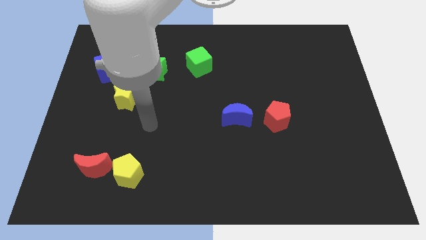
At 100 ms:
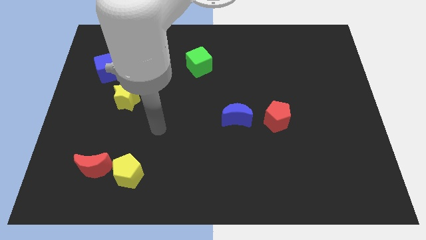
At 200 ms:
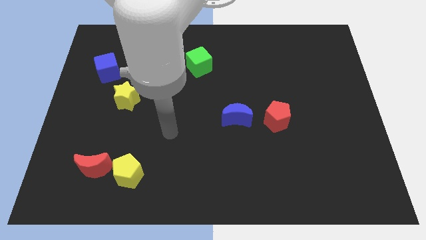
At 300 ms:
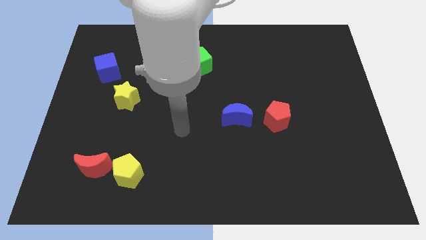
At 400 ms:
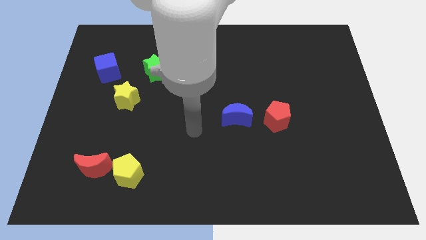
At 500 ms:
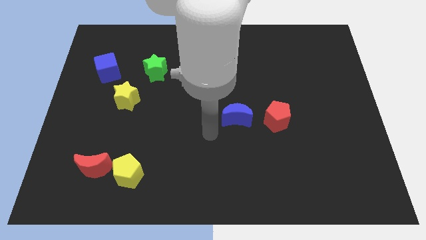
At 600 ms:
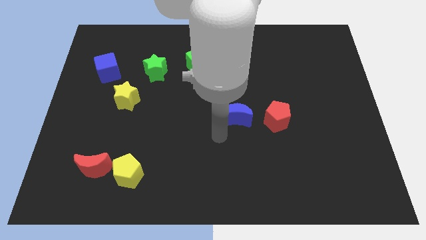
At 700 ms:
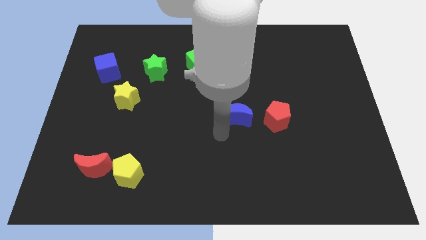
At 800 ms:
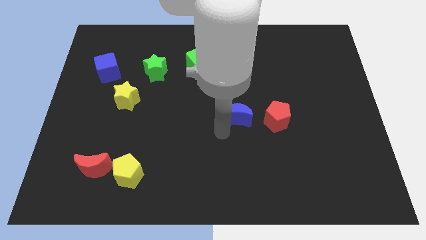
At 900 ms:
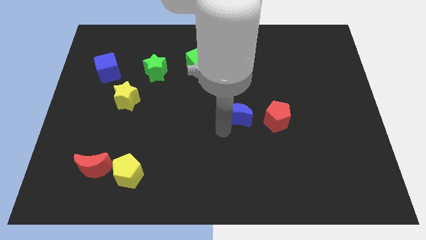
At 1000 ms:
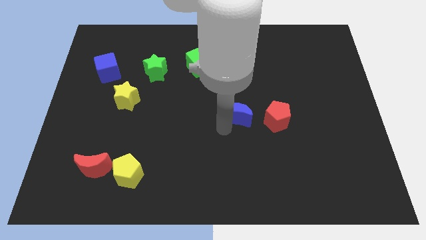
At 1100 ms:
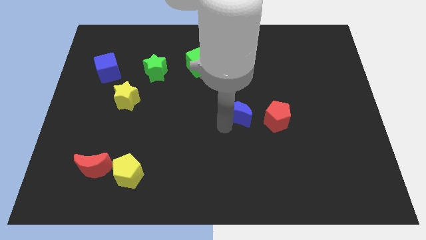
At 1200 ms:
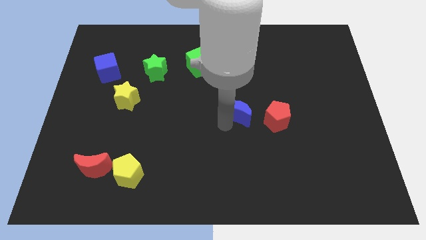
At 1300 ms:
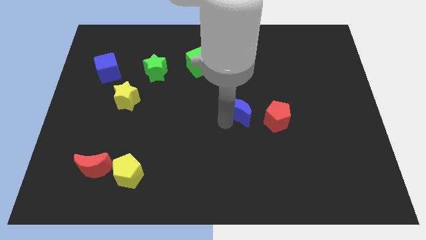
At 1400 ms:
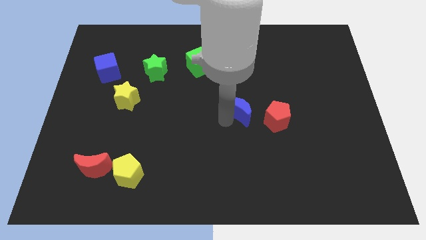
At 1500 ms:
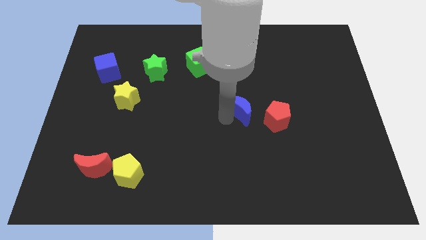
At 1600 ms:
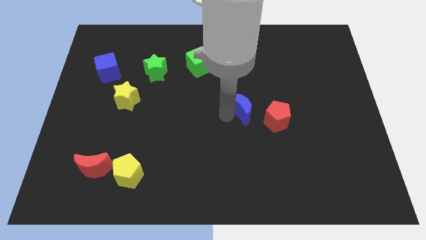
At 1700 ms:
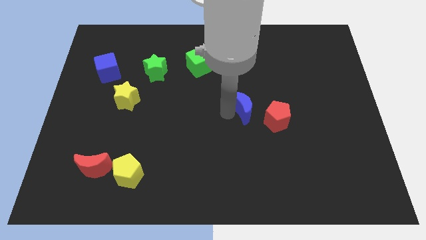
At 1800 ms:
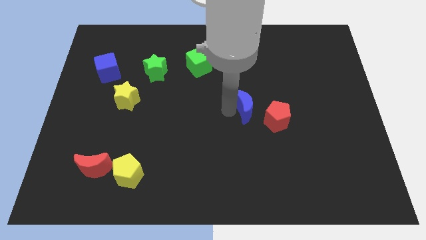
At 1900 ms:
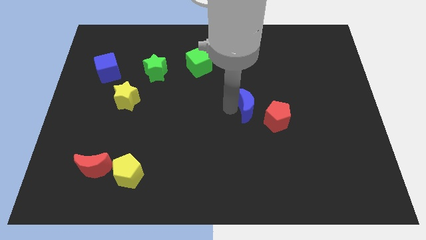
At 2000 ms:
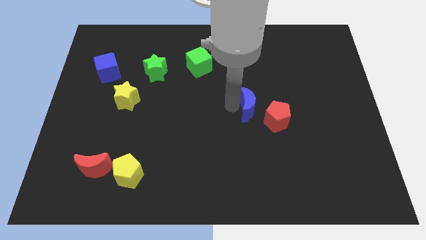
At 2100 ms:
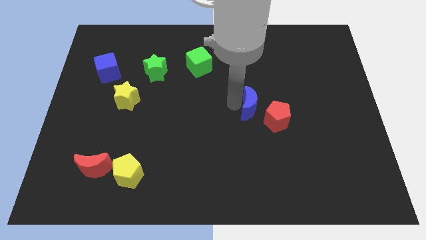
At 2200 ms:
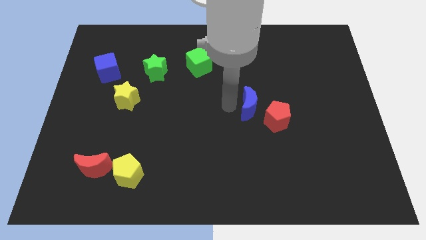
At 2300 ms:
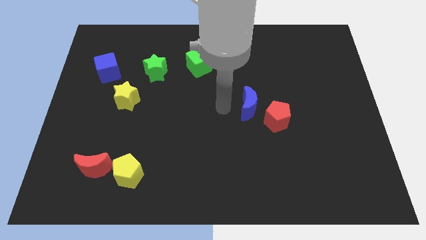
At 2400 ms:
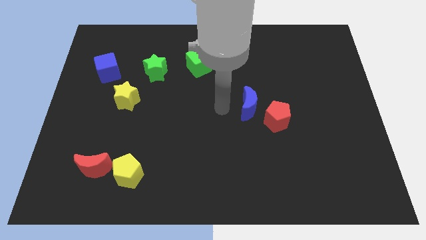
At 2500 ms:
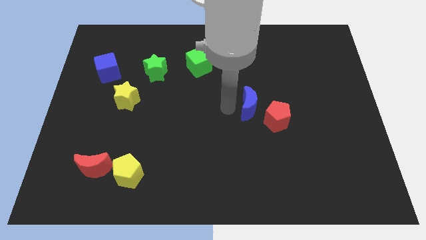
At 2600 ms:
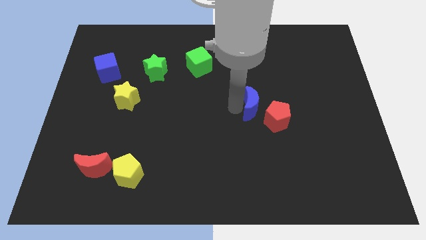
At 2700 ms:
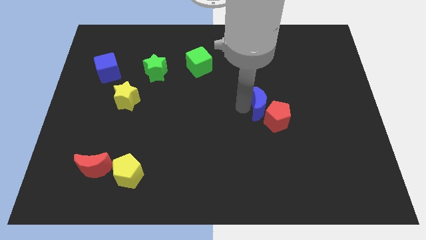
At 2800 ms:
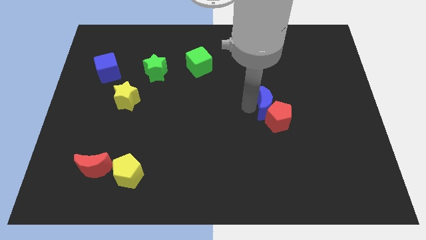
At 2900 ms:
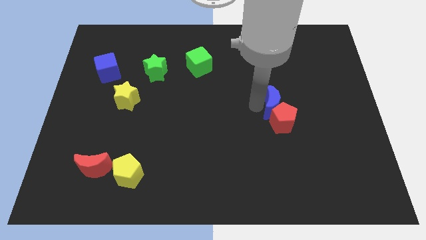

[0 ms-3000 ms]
slightly move the blue moon to the right

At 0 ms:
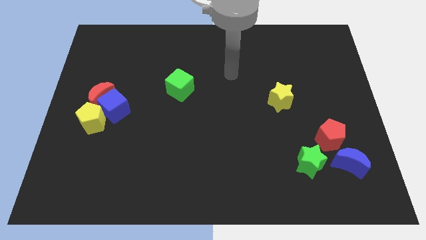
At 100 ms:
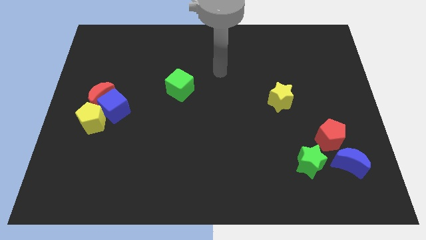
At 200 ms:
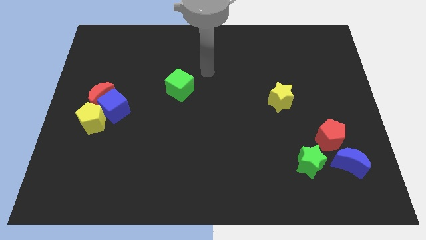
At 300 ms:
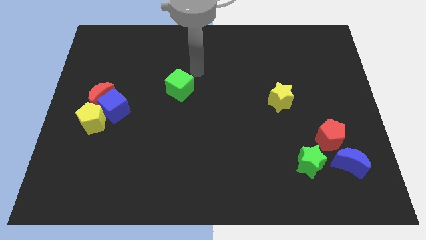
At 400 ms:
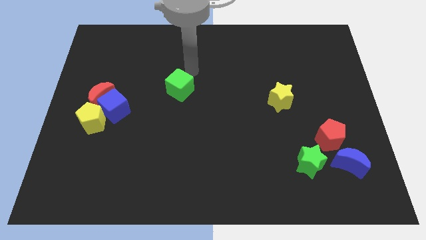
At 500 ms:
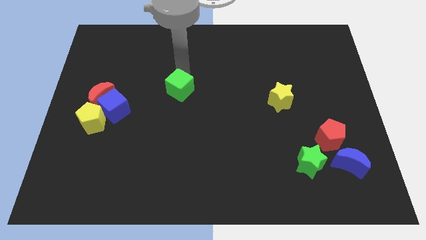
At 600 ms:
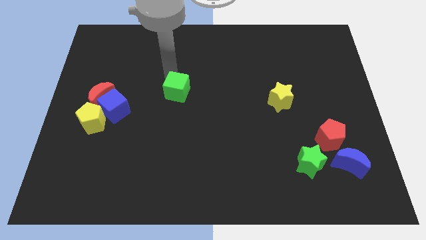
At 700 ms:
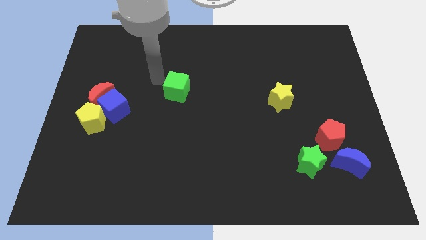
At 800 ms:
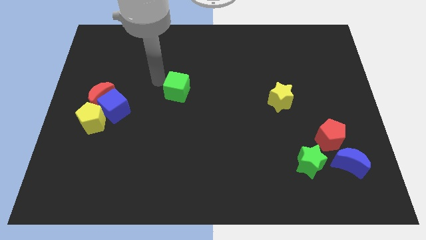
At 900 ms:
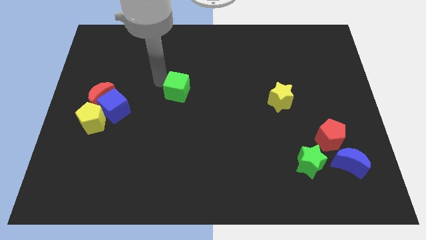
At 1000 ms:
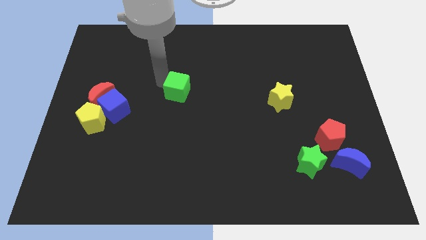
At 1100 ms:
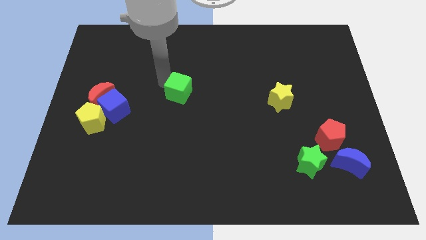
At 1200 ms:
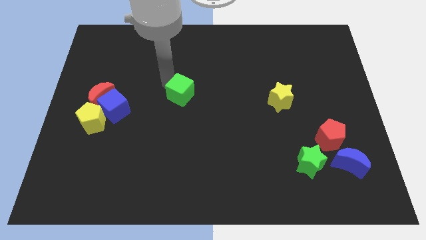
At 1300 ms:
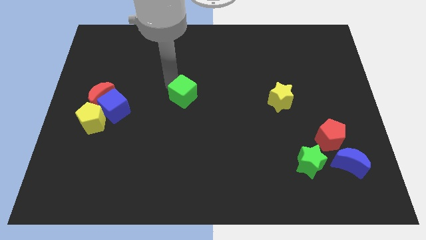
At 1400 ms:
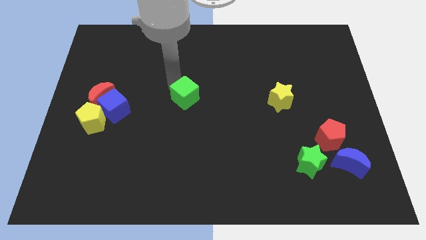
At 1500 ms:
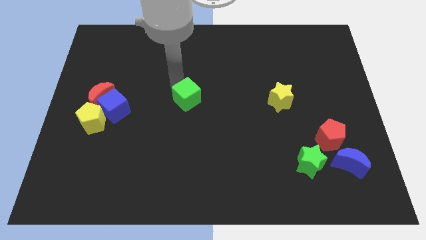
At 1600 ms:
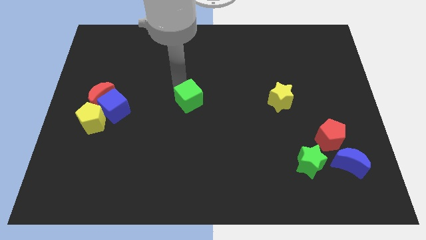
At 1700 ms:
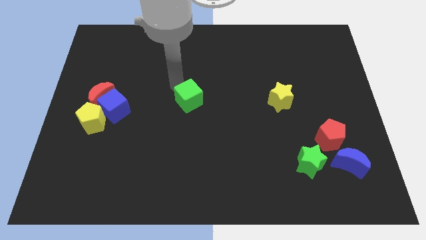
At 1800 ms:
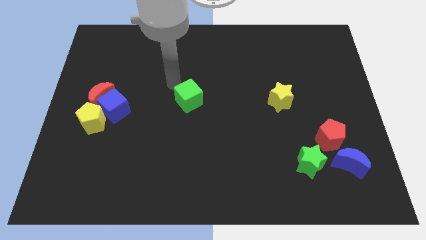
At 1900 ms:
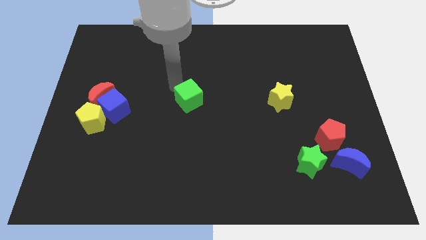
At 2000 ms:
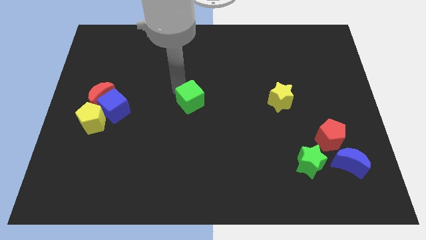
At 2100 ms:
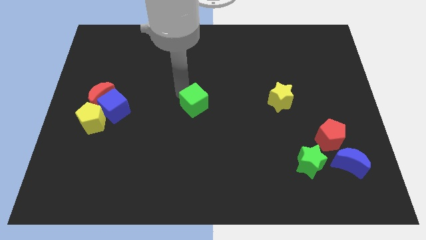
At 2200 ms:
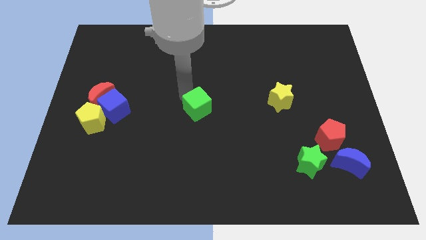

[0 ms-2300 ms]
move the green cube down and to the right diagonally slightly

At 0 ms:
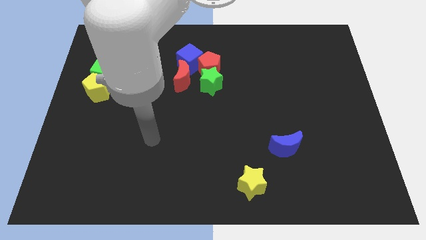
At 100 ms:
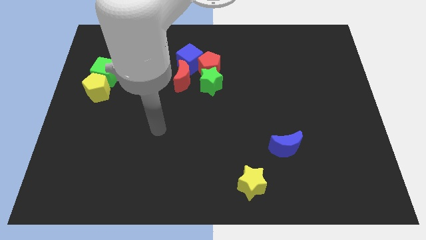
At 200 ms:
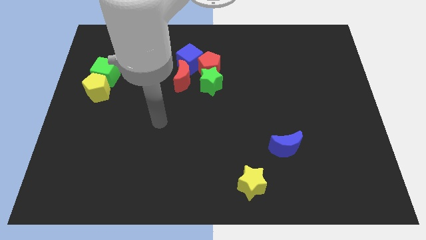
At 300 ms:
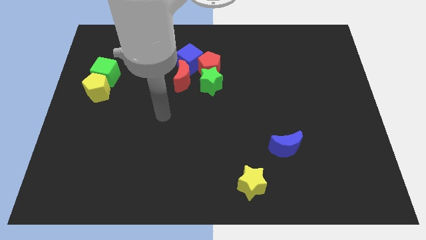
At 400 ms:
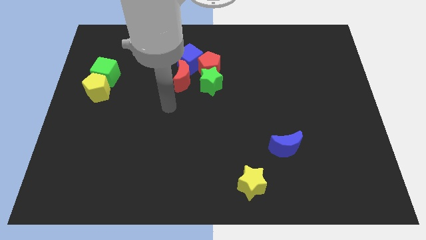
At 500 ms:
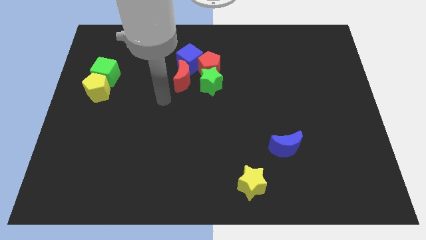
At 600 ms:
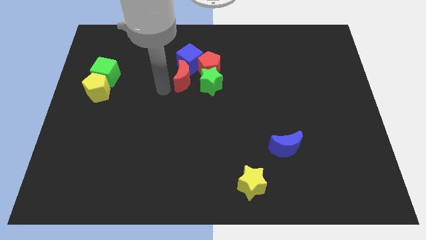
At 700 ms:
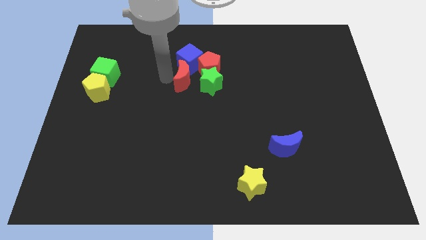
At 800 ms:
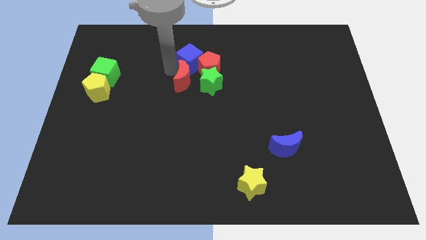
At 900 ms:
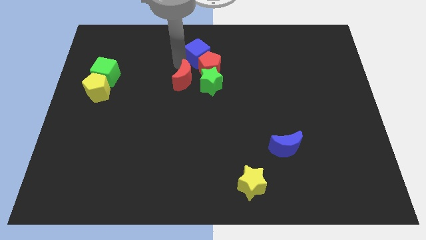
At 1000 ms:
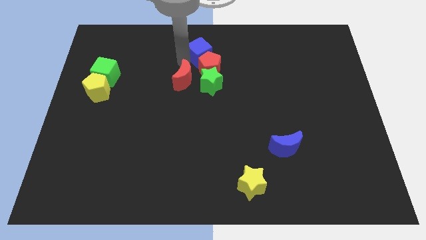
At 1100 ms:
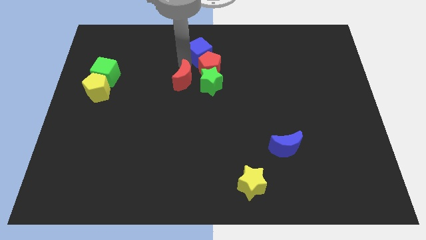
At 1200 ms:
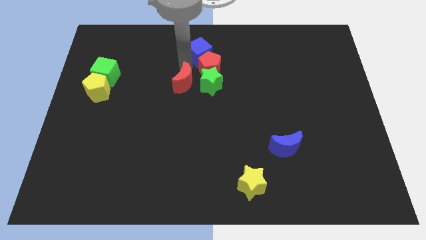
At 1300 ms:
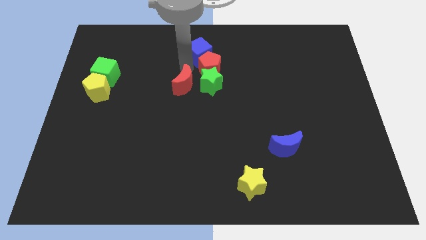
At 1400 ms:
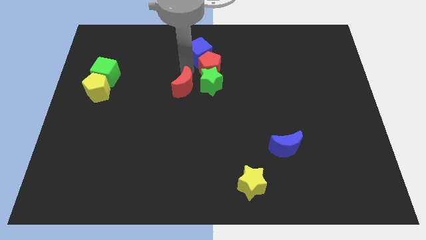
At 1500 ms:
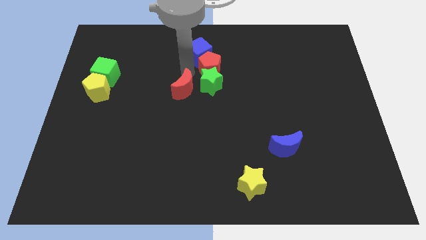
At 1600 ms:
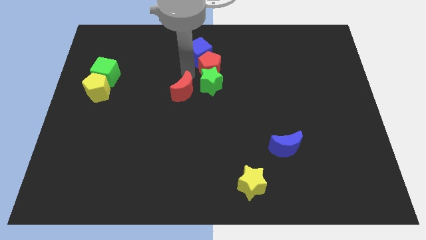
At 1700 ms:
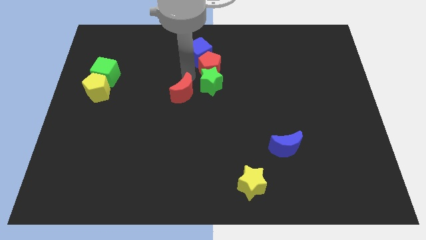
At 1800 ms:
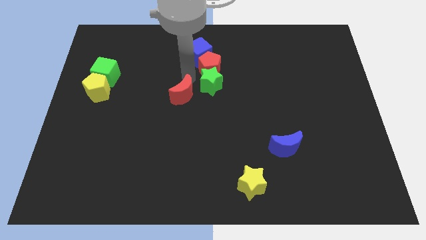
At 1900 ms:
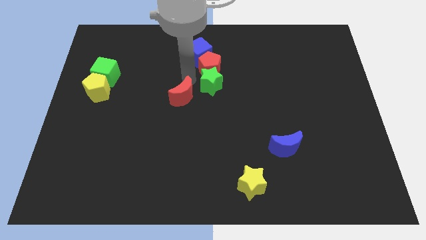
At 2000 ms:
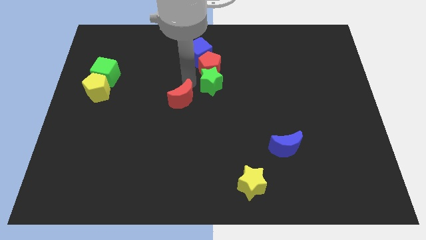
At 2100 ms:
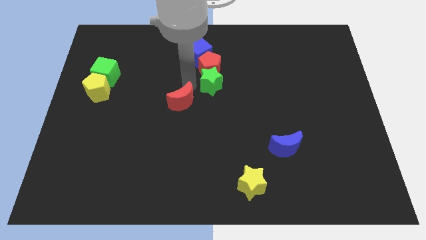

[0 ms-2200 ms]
slide the red moon downwards a bit

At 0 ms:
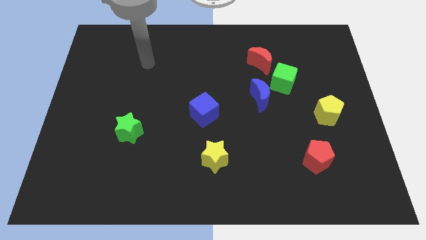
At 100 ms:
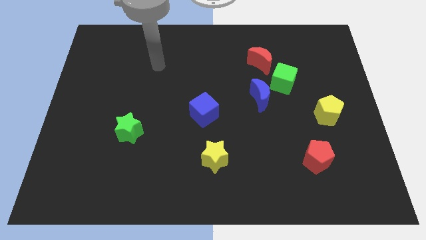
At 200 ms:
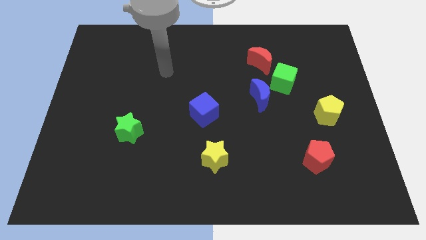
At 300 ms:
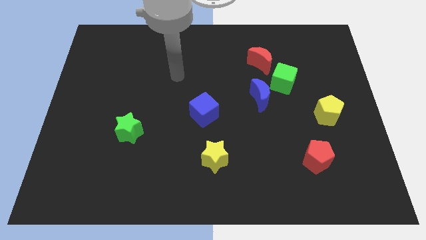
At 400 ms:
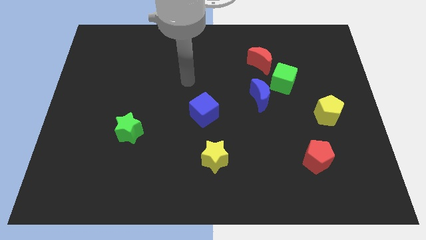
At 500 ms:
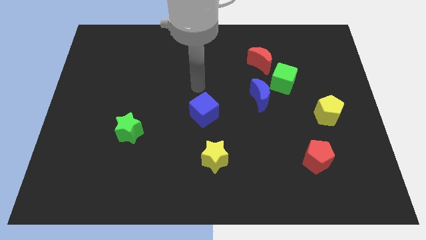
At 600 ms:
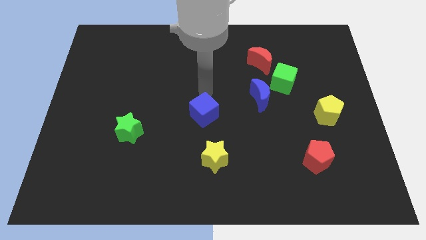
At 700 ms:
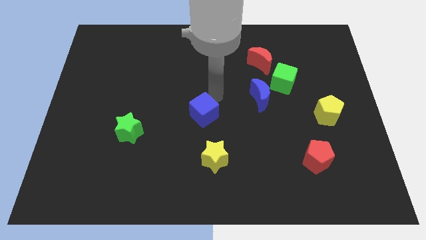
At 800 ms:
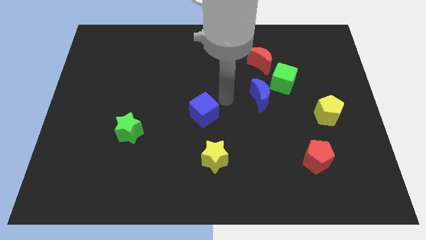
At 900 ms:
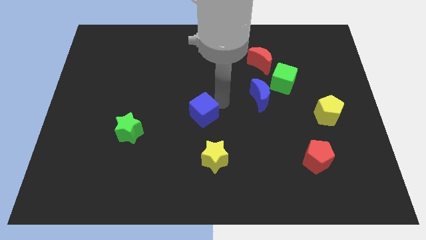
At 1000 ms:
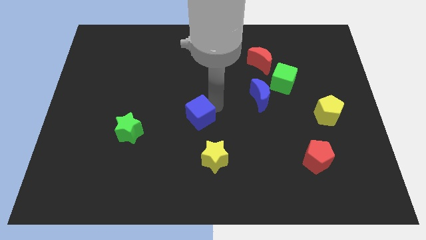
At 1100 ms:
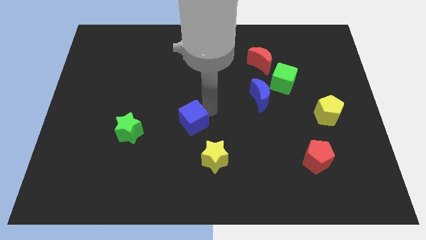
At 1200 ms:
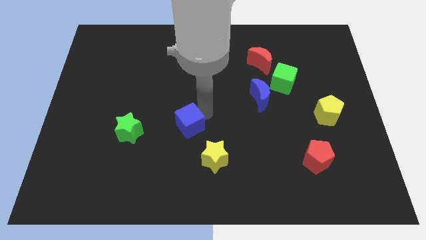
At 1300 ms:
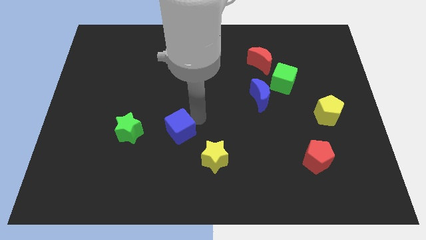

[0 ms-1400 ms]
push the blue cube a little down and to the left diagonally
